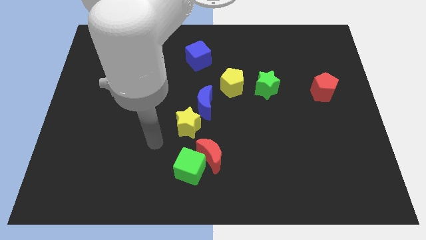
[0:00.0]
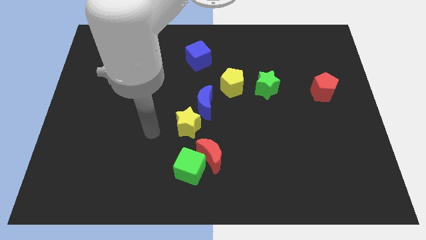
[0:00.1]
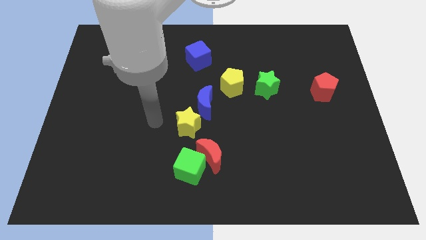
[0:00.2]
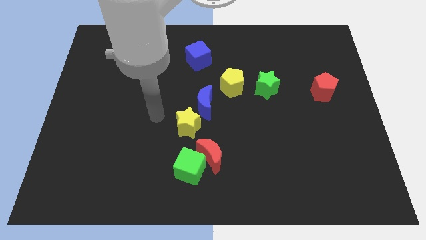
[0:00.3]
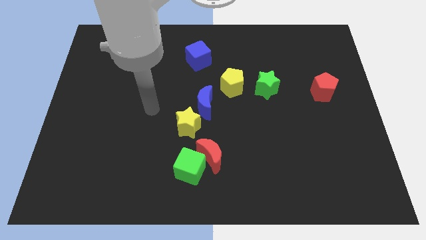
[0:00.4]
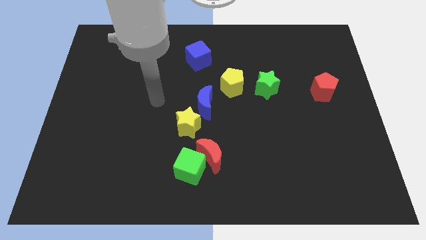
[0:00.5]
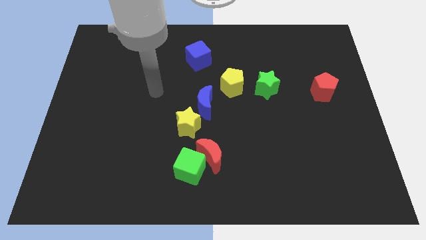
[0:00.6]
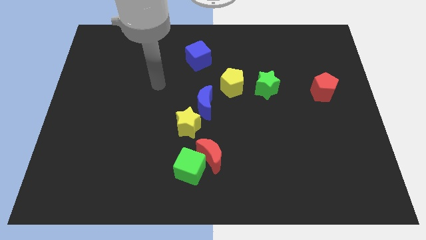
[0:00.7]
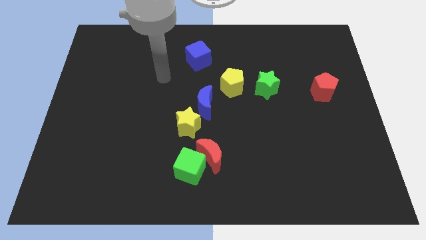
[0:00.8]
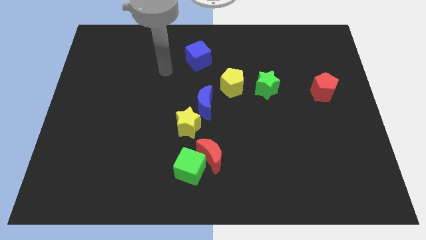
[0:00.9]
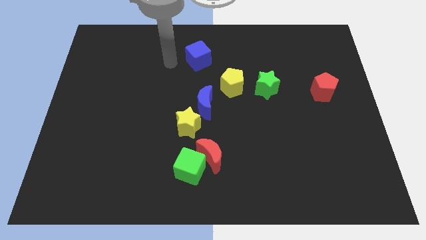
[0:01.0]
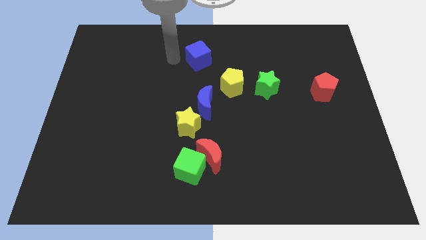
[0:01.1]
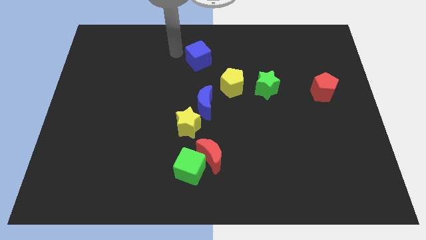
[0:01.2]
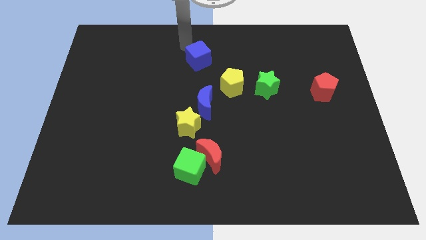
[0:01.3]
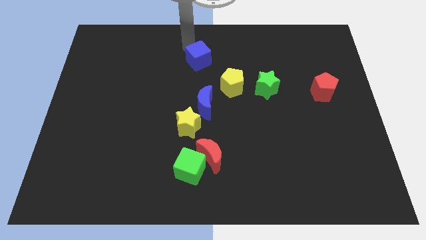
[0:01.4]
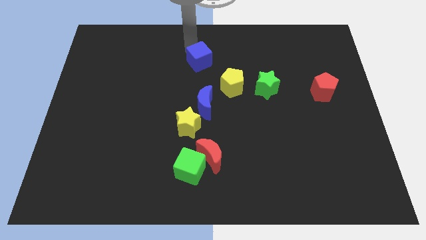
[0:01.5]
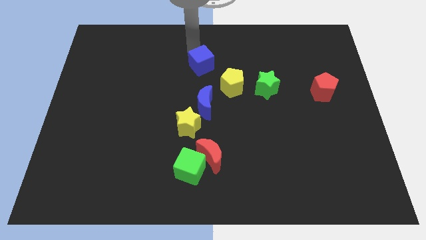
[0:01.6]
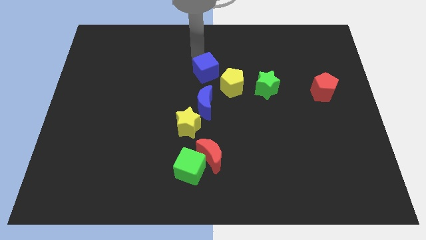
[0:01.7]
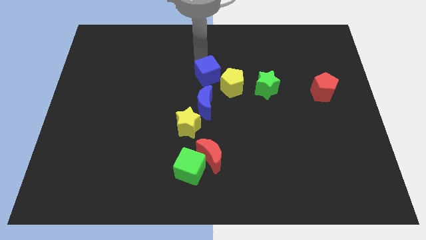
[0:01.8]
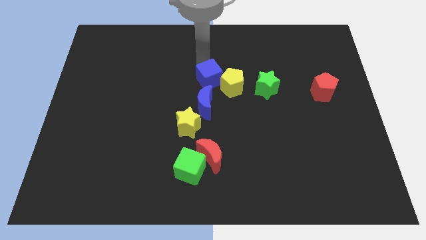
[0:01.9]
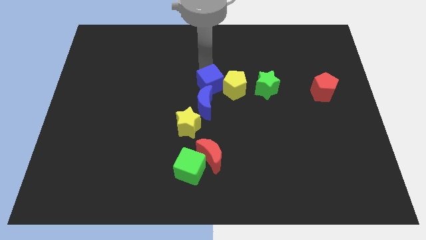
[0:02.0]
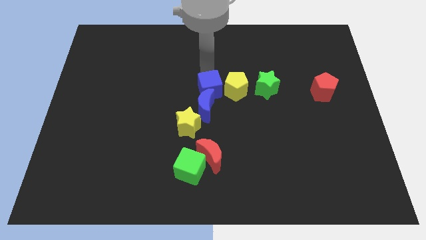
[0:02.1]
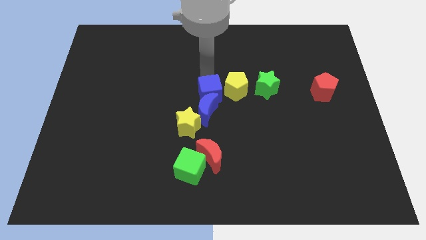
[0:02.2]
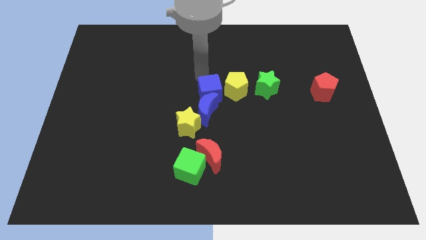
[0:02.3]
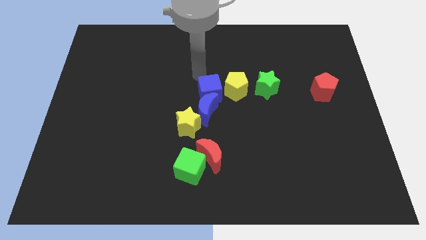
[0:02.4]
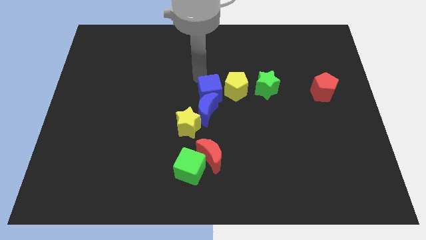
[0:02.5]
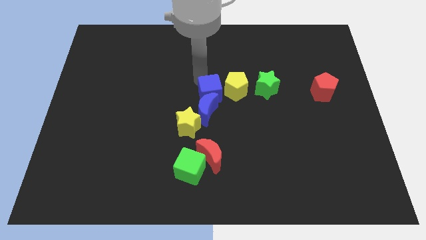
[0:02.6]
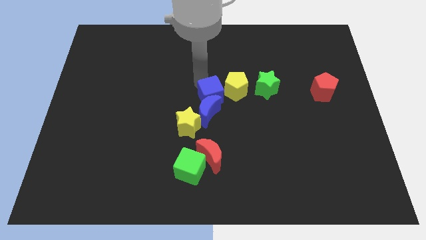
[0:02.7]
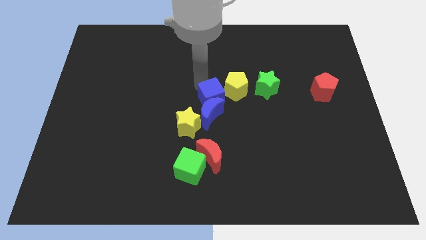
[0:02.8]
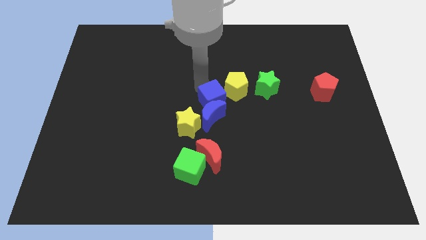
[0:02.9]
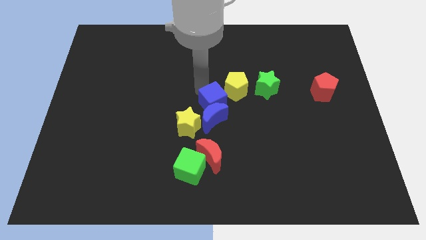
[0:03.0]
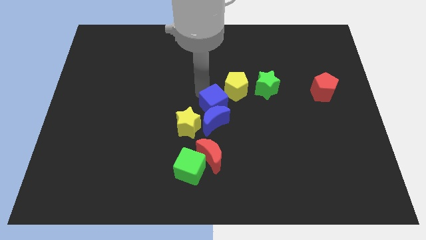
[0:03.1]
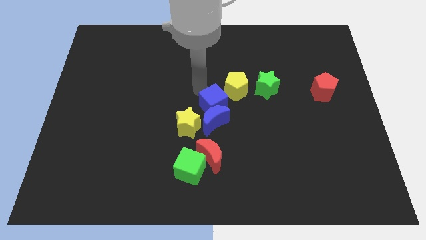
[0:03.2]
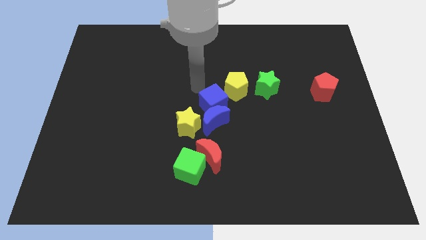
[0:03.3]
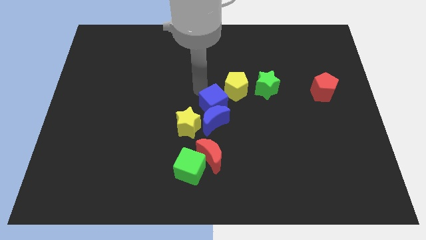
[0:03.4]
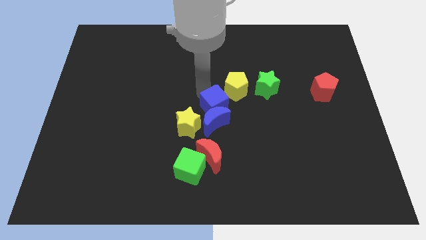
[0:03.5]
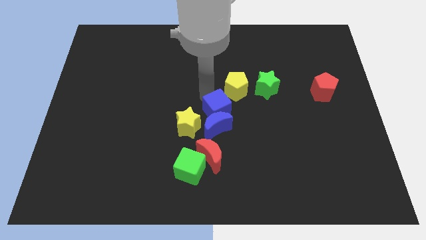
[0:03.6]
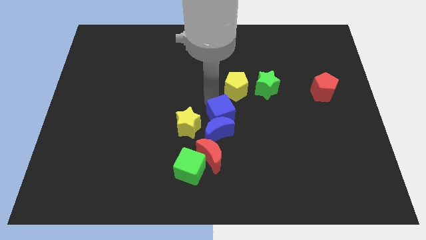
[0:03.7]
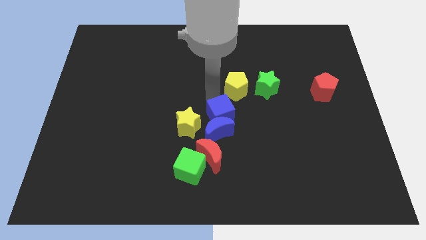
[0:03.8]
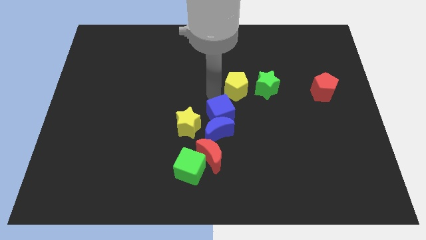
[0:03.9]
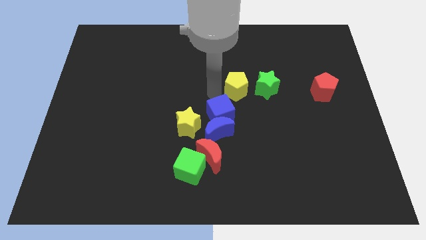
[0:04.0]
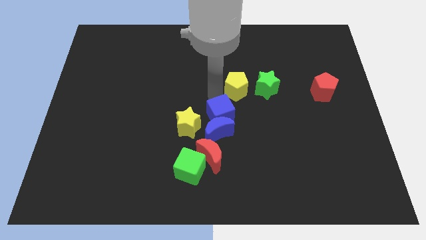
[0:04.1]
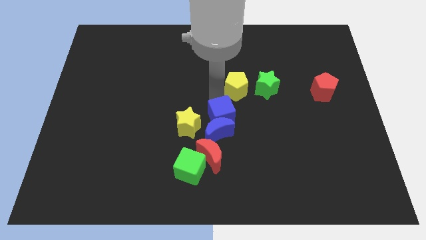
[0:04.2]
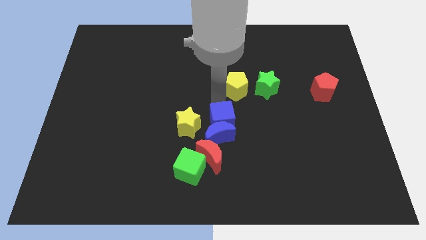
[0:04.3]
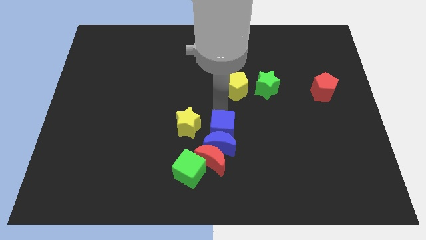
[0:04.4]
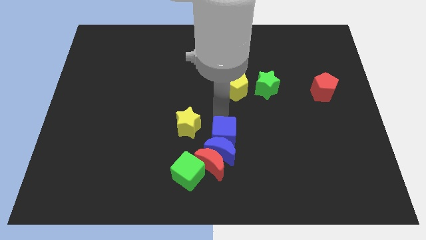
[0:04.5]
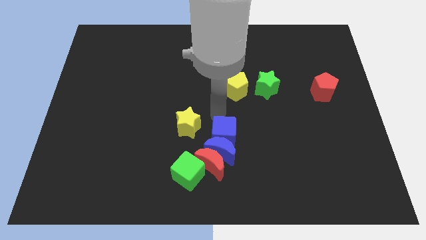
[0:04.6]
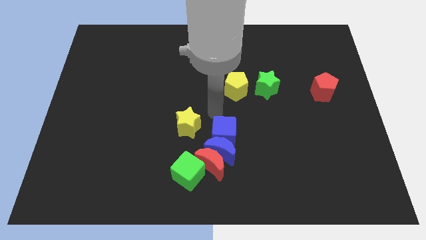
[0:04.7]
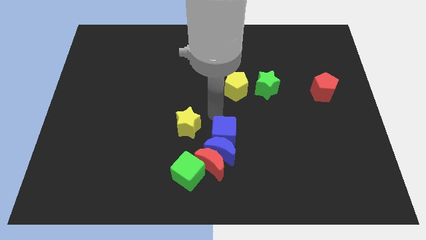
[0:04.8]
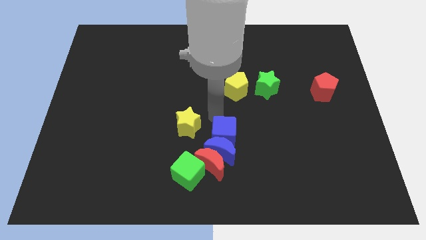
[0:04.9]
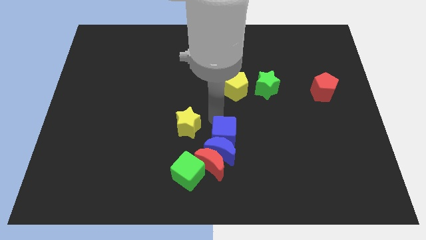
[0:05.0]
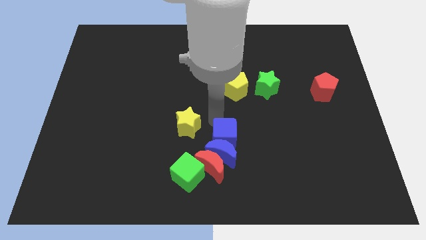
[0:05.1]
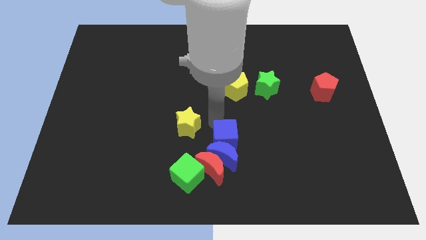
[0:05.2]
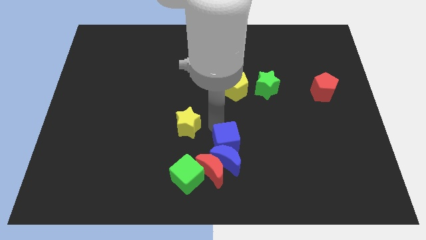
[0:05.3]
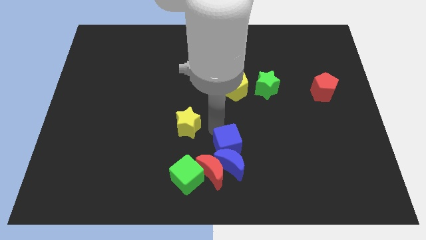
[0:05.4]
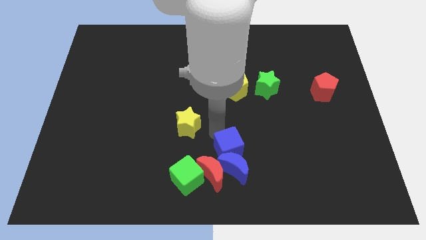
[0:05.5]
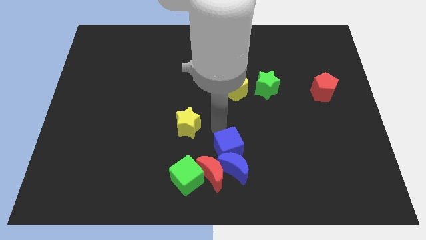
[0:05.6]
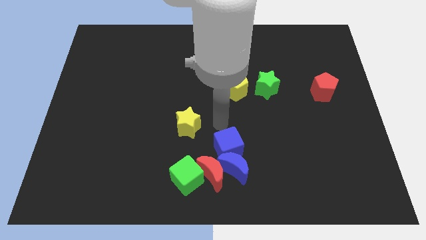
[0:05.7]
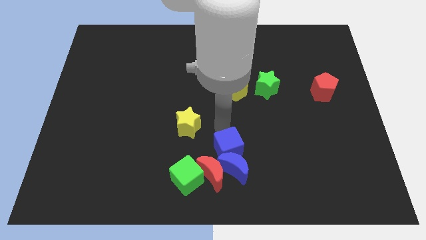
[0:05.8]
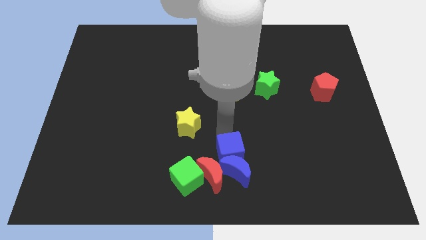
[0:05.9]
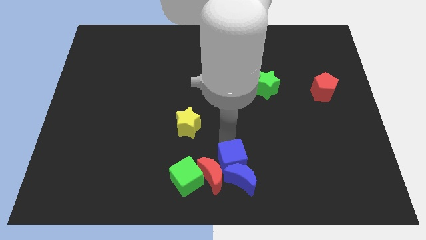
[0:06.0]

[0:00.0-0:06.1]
move the blue cube right of the green cube

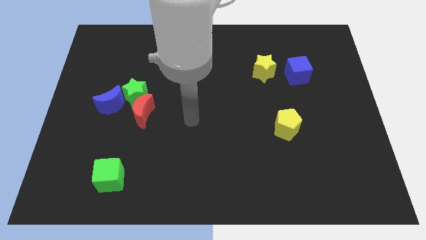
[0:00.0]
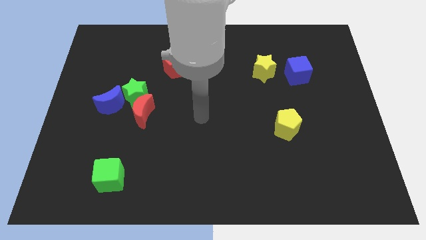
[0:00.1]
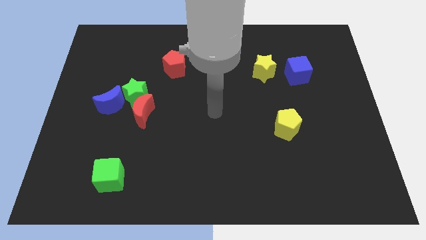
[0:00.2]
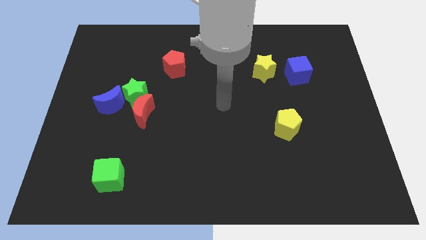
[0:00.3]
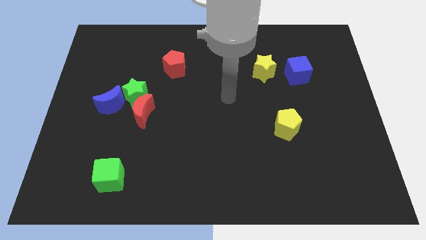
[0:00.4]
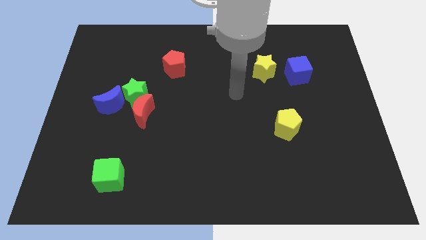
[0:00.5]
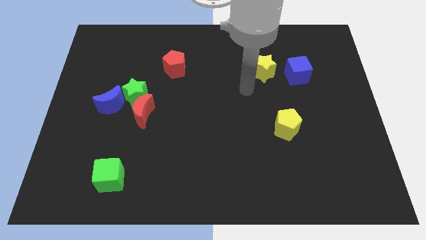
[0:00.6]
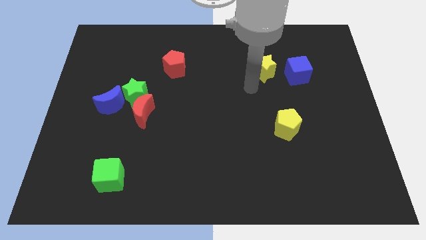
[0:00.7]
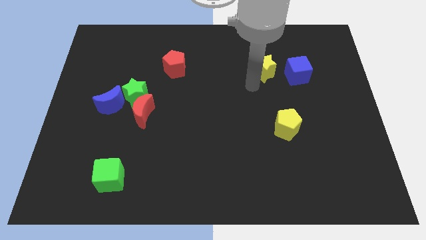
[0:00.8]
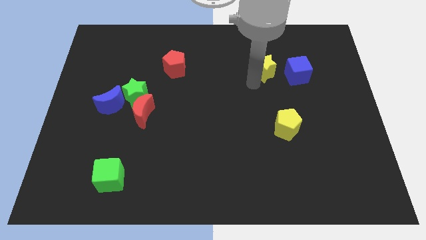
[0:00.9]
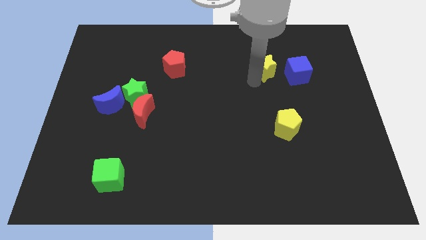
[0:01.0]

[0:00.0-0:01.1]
move the yellow star to the top left of the blue cube
